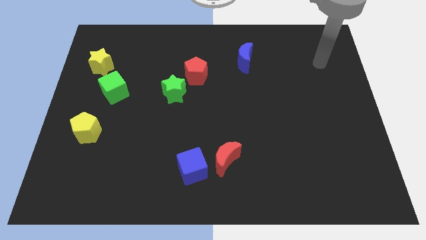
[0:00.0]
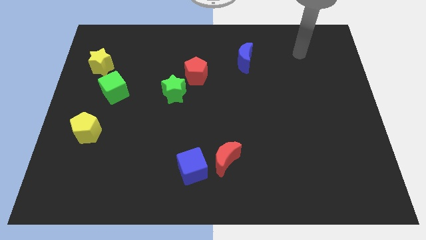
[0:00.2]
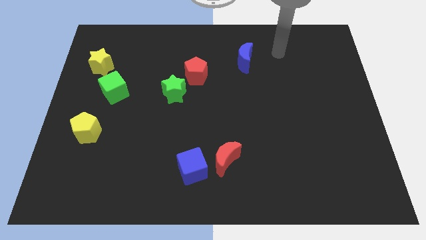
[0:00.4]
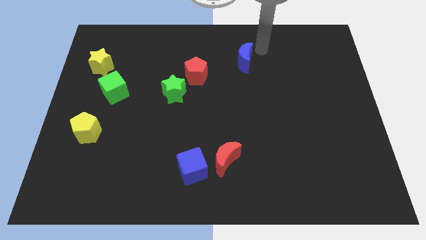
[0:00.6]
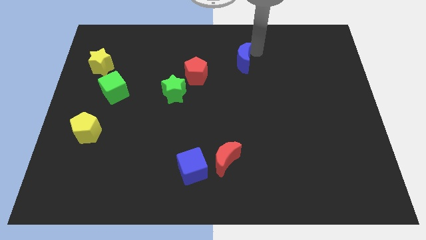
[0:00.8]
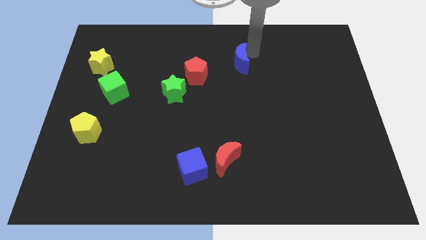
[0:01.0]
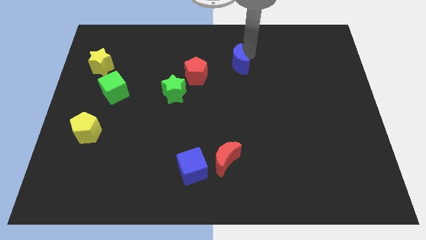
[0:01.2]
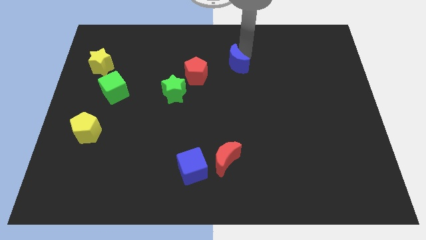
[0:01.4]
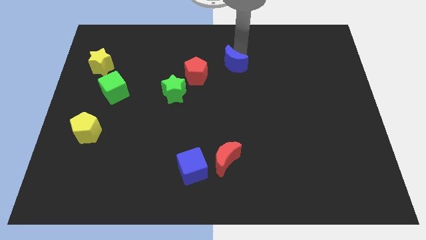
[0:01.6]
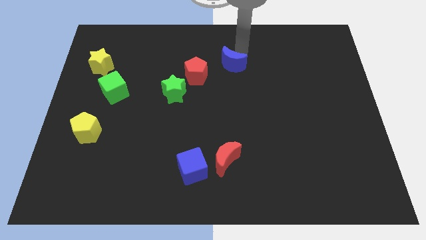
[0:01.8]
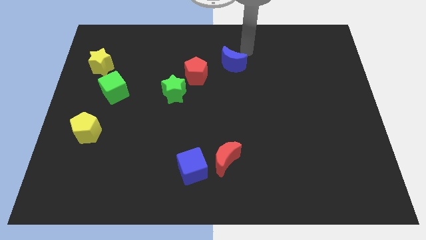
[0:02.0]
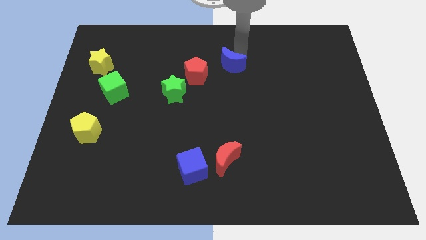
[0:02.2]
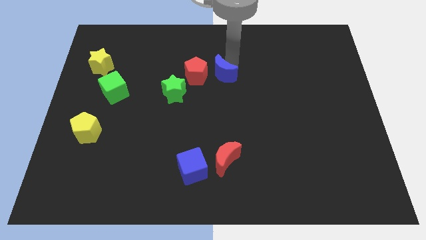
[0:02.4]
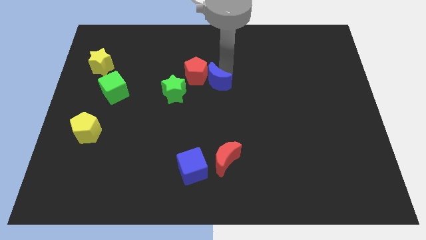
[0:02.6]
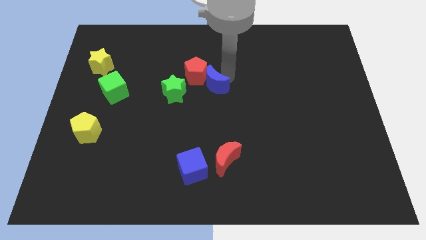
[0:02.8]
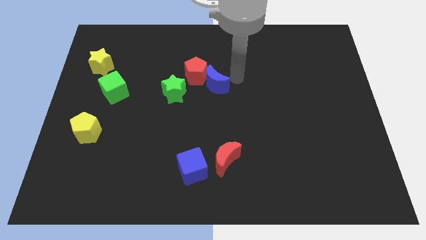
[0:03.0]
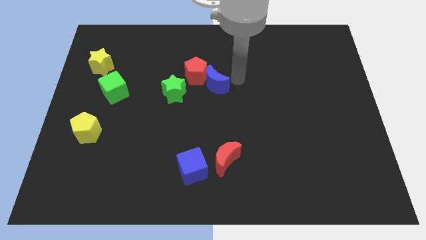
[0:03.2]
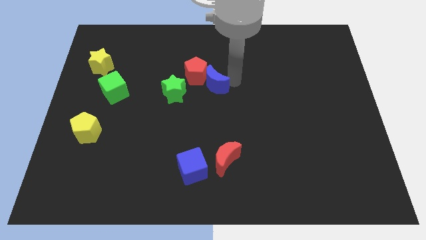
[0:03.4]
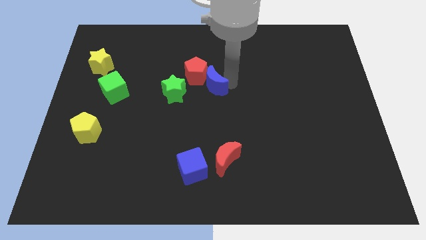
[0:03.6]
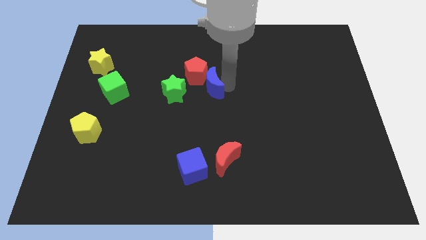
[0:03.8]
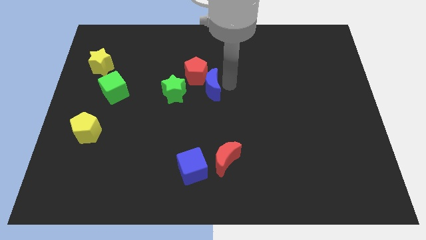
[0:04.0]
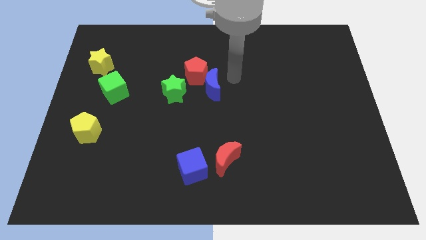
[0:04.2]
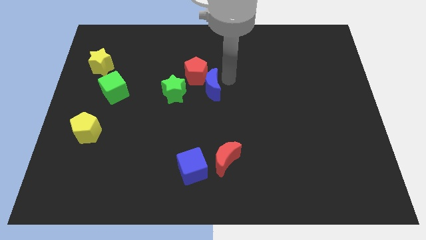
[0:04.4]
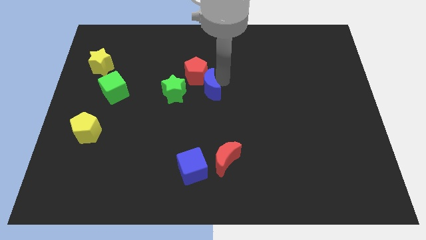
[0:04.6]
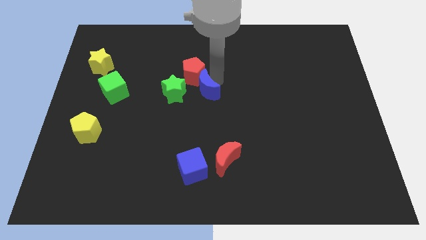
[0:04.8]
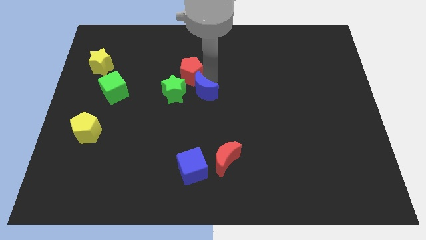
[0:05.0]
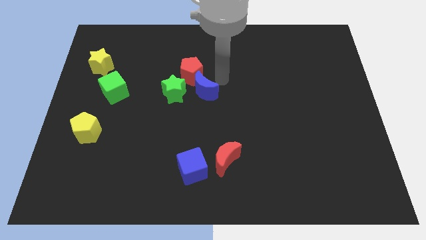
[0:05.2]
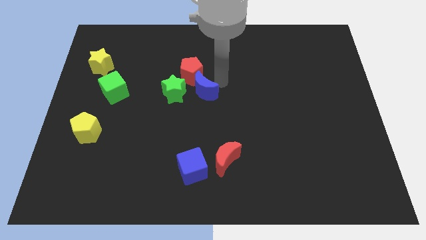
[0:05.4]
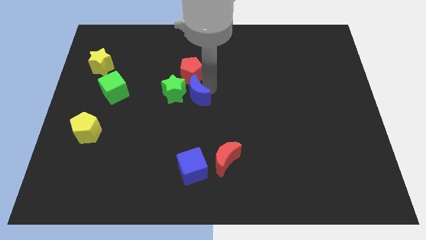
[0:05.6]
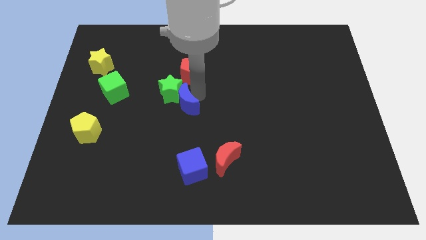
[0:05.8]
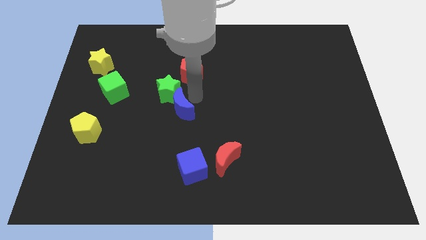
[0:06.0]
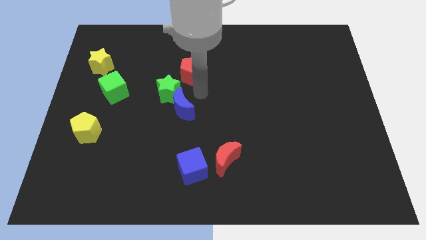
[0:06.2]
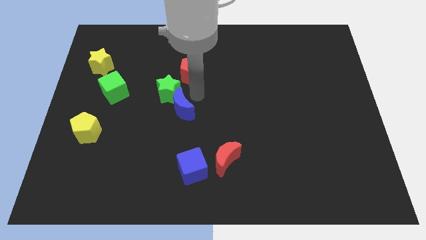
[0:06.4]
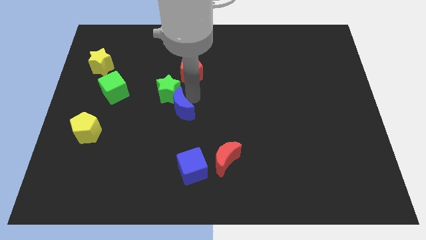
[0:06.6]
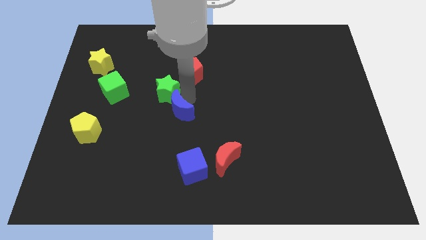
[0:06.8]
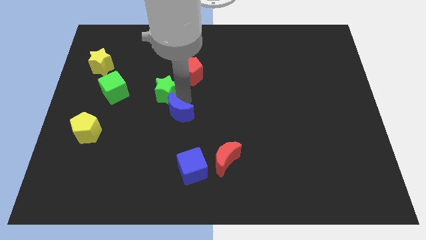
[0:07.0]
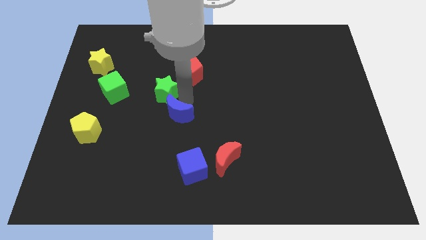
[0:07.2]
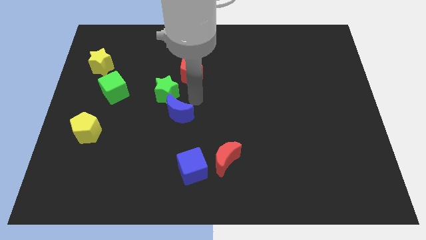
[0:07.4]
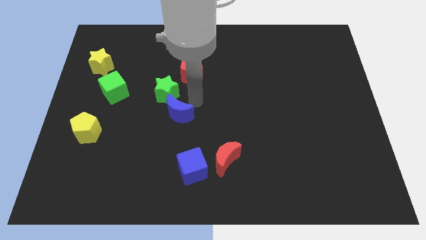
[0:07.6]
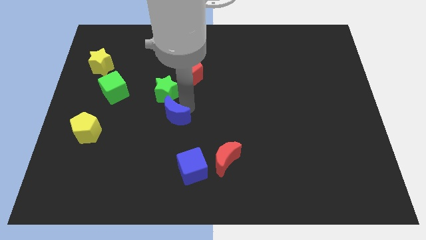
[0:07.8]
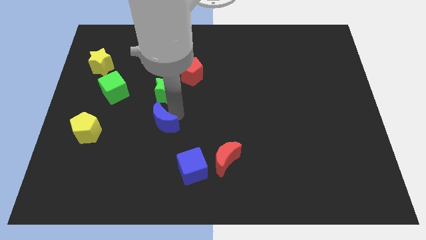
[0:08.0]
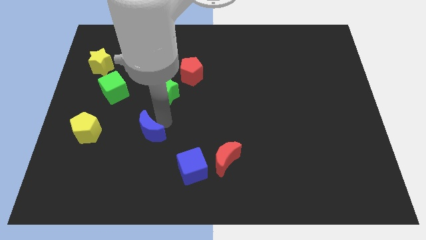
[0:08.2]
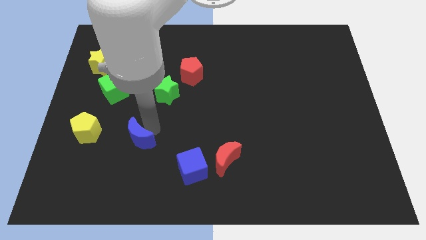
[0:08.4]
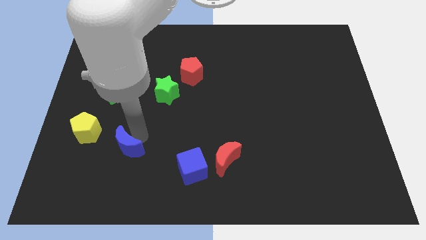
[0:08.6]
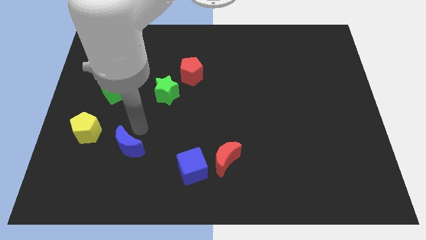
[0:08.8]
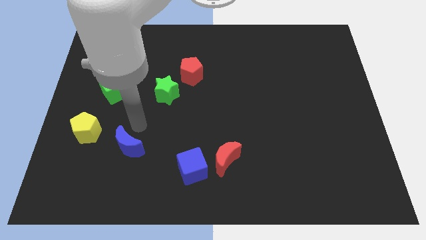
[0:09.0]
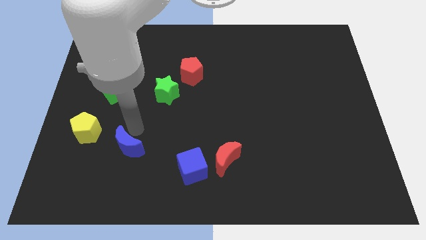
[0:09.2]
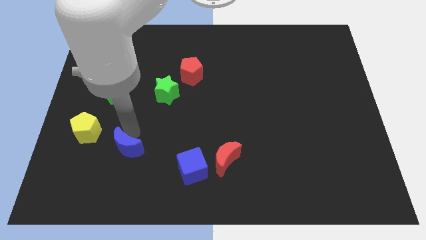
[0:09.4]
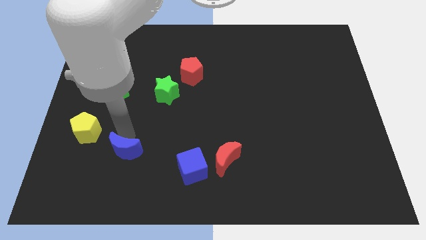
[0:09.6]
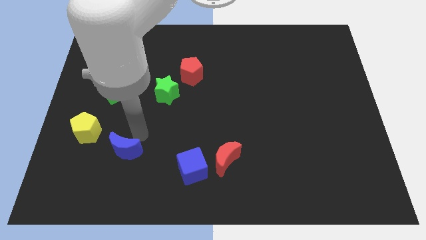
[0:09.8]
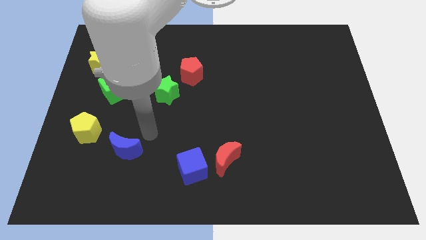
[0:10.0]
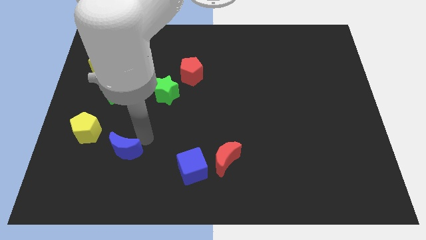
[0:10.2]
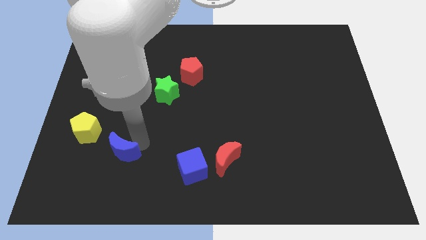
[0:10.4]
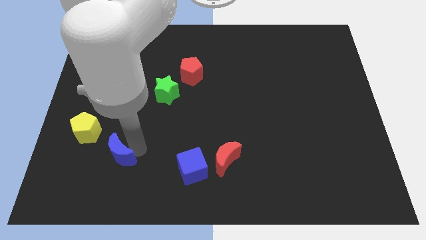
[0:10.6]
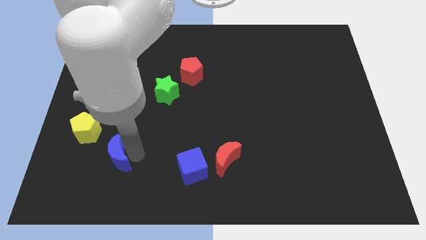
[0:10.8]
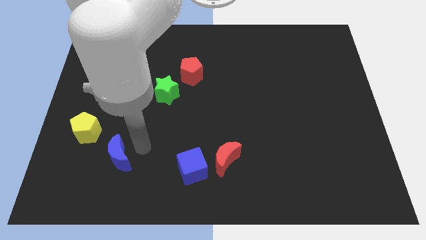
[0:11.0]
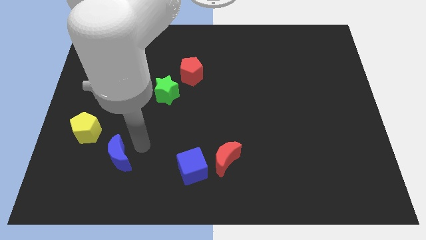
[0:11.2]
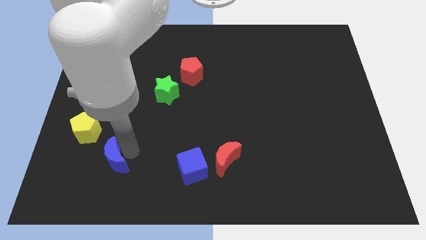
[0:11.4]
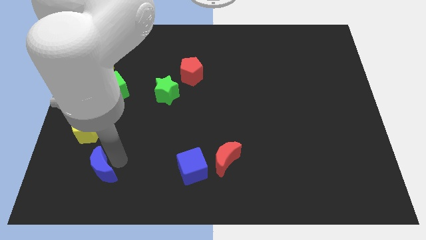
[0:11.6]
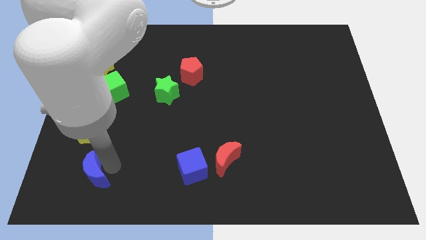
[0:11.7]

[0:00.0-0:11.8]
put the blue moon to the bottom side of the yellow pentagon
